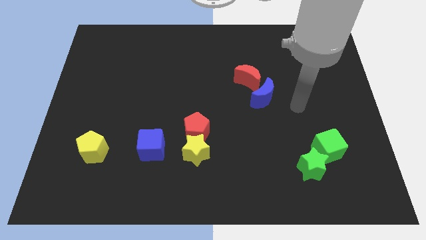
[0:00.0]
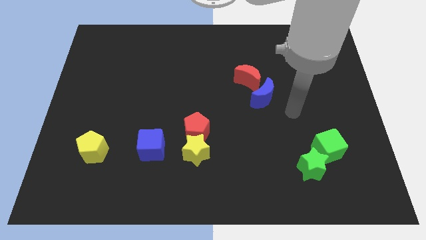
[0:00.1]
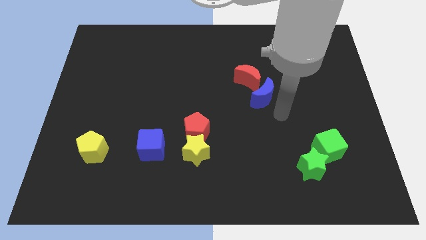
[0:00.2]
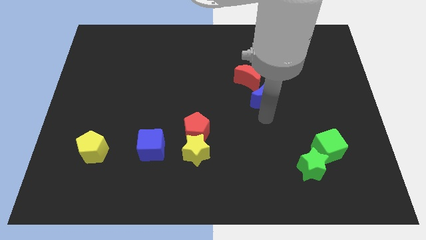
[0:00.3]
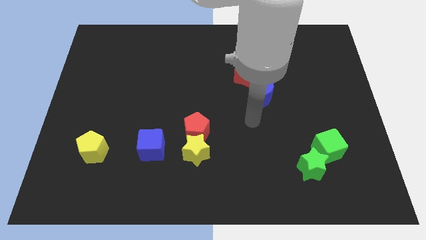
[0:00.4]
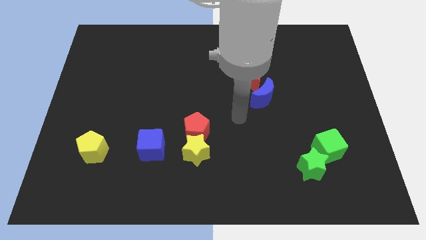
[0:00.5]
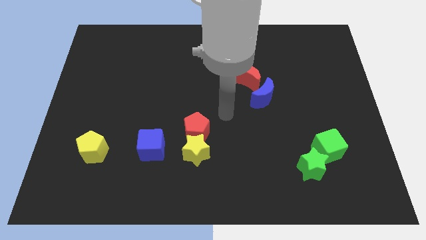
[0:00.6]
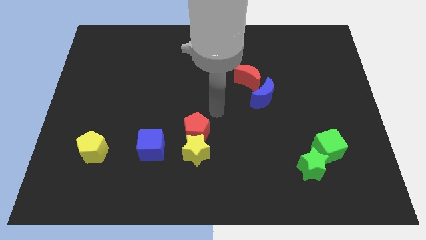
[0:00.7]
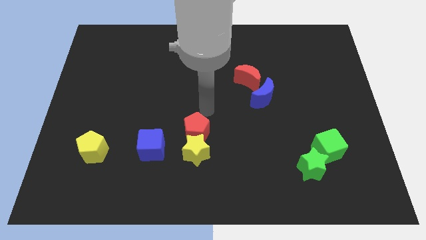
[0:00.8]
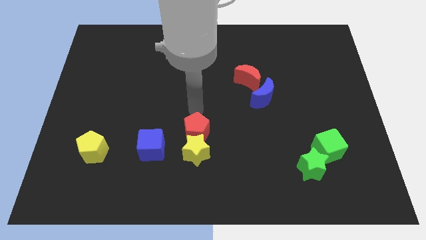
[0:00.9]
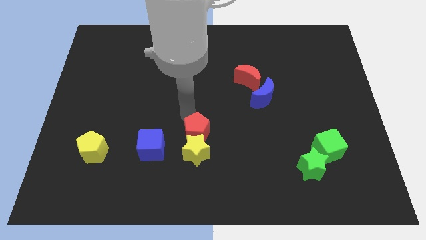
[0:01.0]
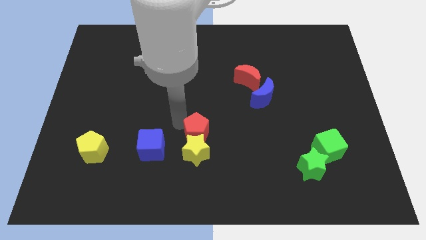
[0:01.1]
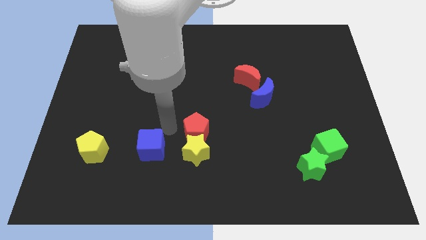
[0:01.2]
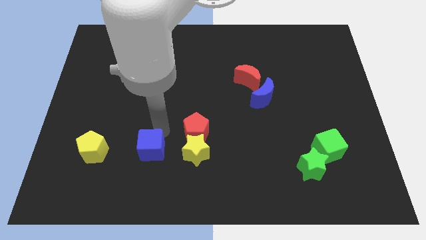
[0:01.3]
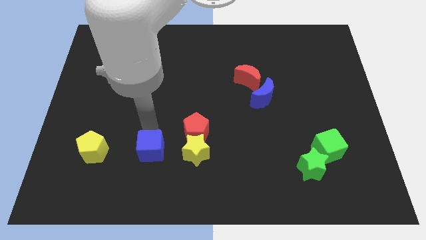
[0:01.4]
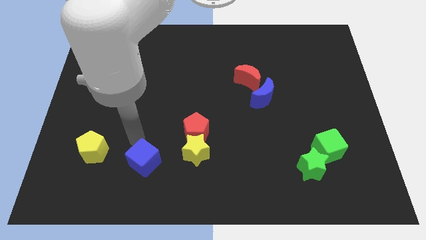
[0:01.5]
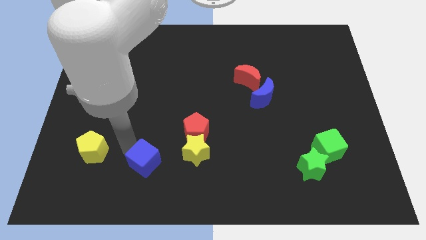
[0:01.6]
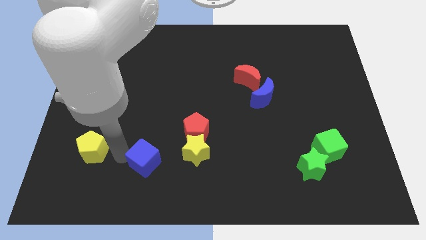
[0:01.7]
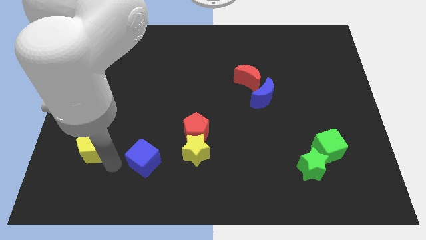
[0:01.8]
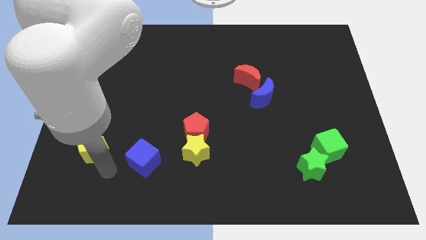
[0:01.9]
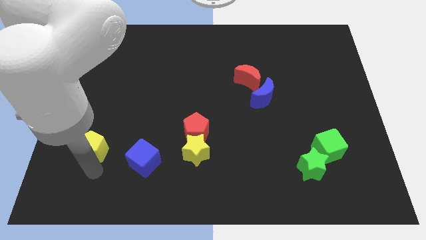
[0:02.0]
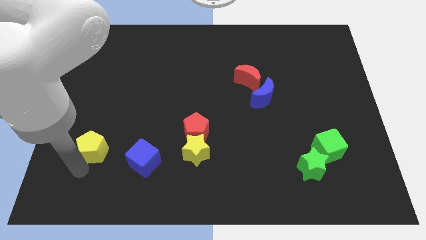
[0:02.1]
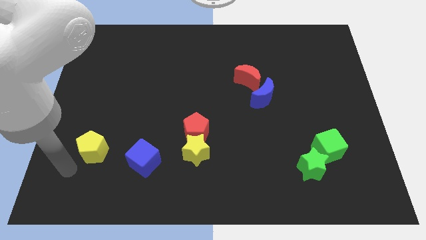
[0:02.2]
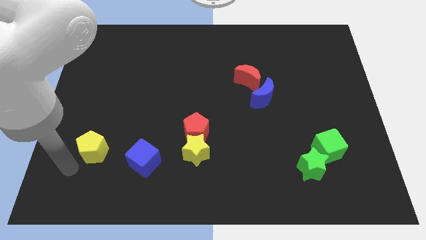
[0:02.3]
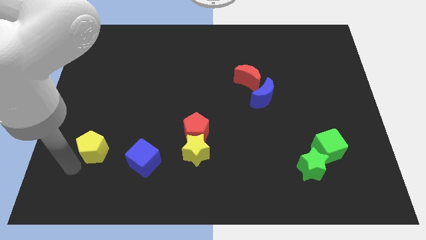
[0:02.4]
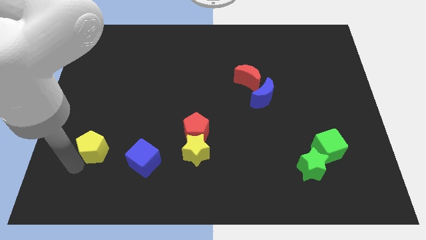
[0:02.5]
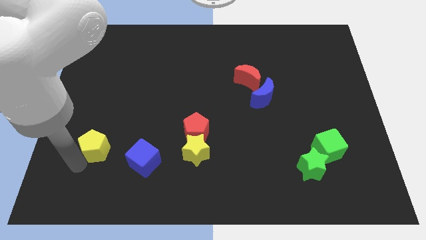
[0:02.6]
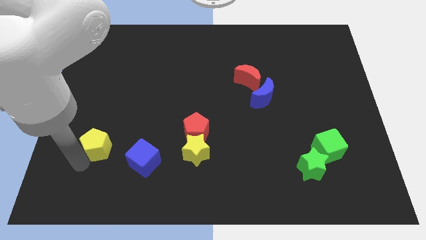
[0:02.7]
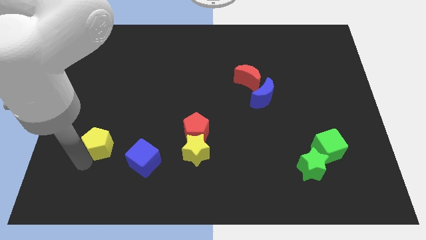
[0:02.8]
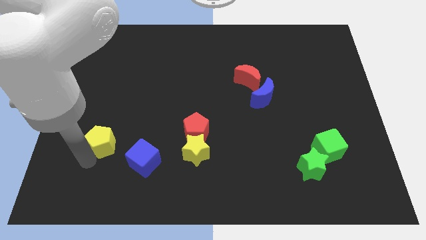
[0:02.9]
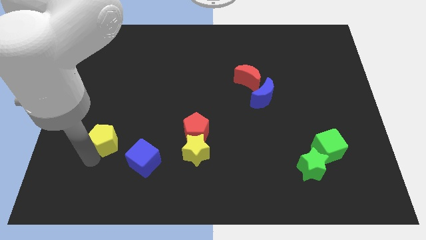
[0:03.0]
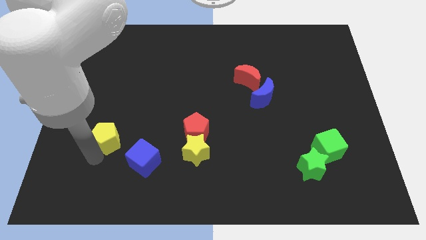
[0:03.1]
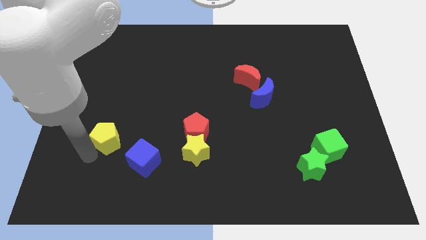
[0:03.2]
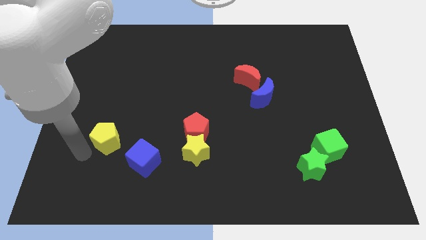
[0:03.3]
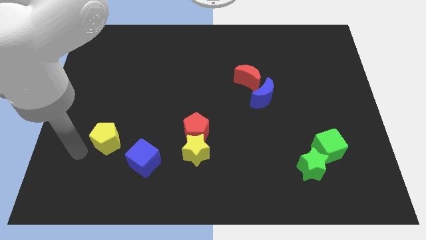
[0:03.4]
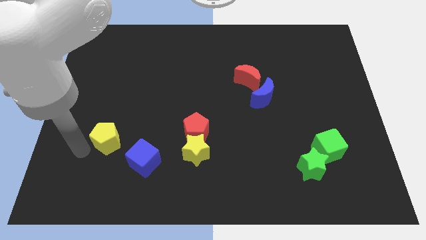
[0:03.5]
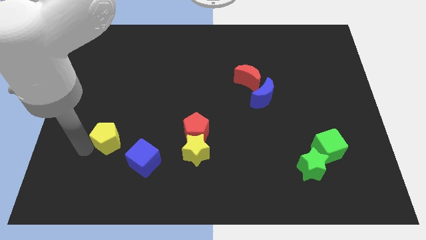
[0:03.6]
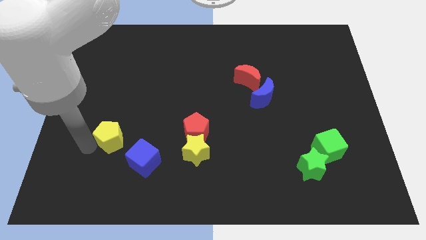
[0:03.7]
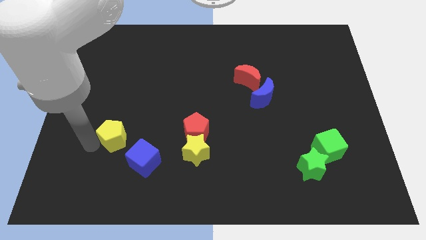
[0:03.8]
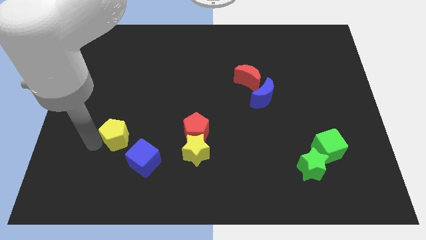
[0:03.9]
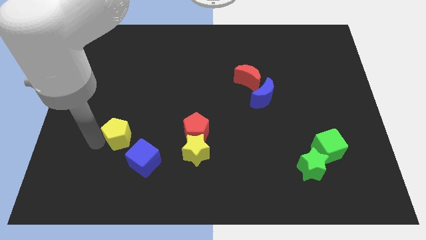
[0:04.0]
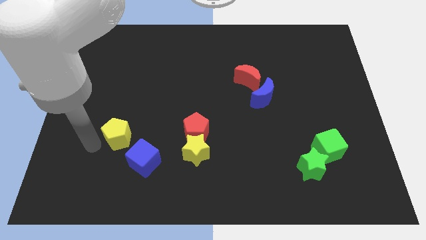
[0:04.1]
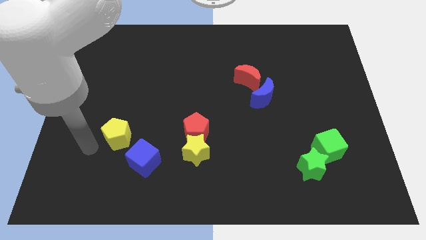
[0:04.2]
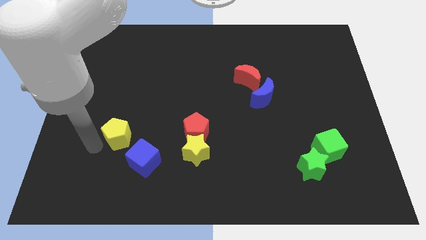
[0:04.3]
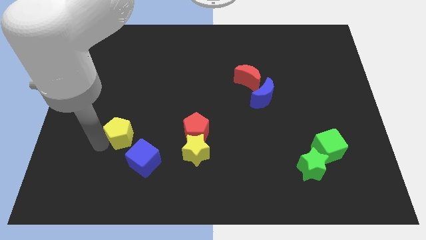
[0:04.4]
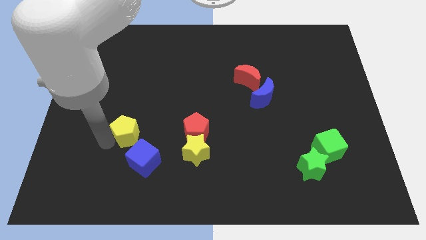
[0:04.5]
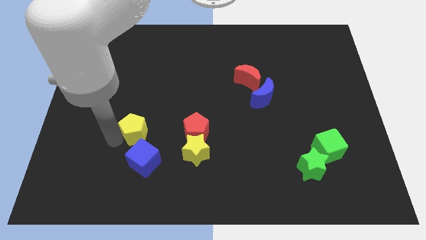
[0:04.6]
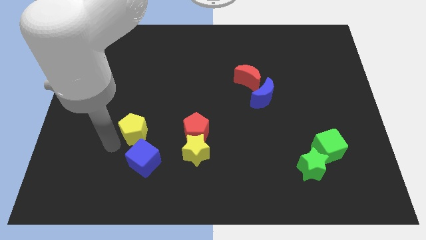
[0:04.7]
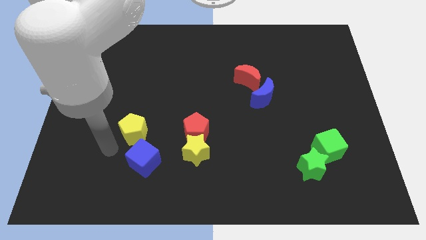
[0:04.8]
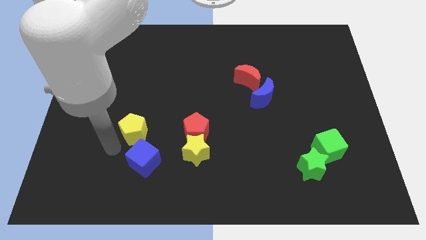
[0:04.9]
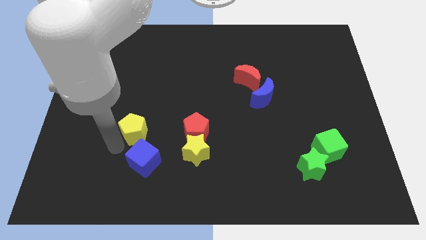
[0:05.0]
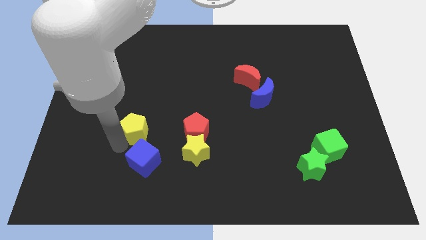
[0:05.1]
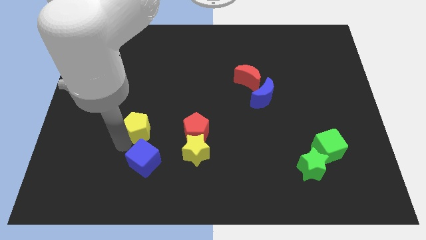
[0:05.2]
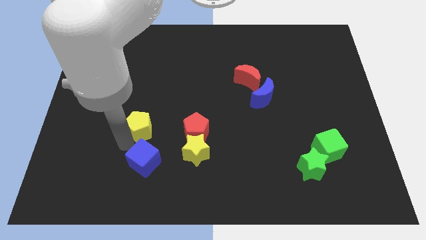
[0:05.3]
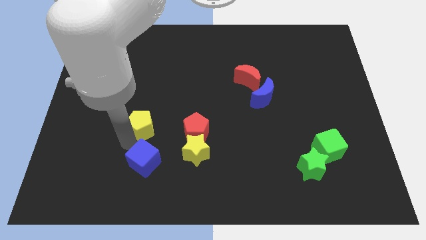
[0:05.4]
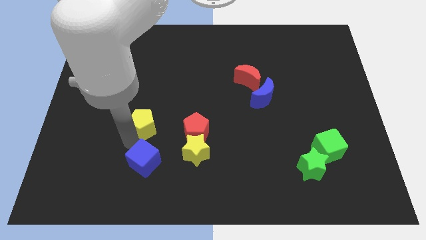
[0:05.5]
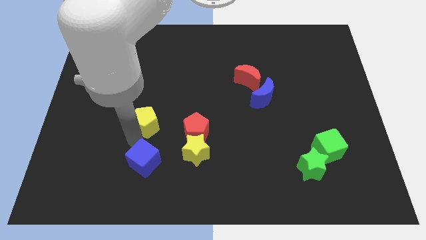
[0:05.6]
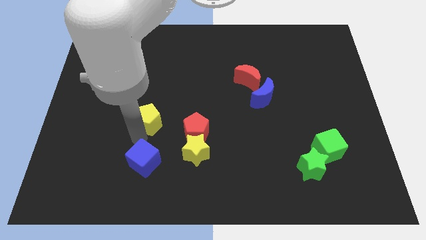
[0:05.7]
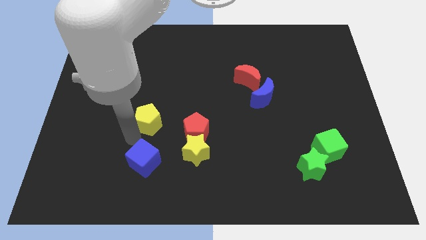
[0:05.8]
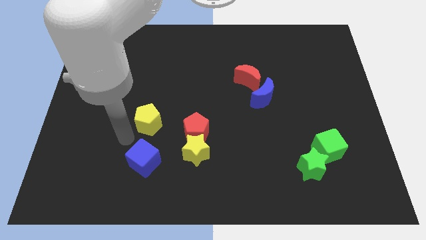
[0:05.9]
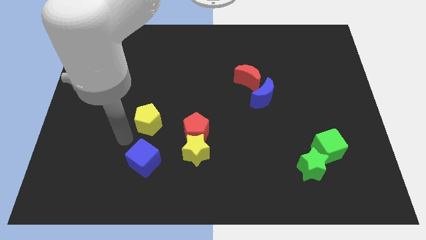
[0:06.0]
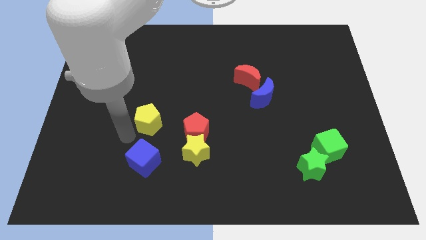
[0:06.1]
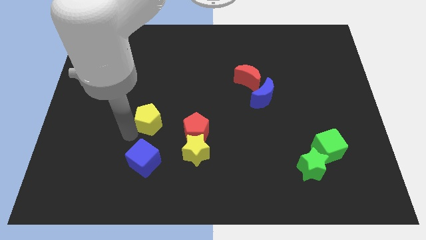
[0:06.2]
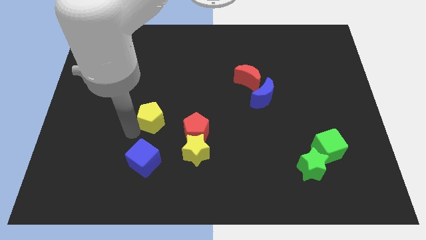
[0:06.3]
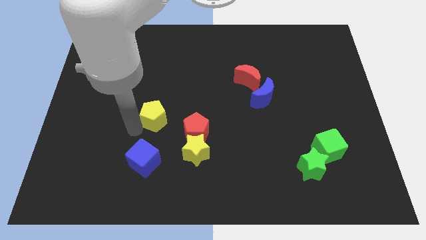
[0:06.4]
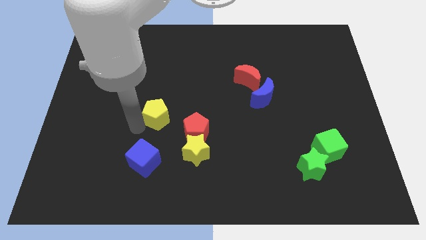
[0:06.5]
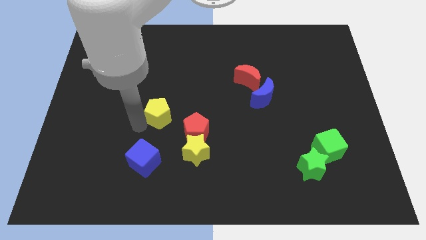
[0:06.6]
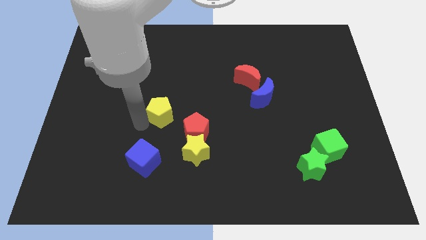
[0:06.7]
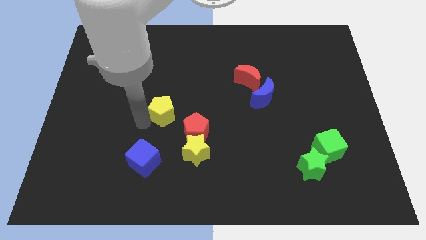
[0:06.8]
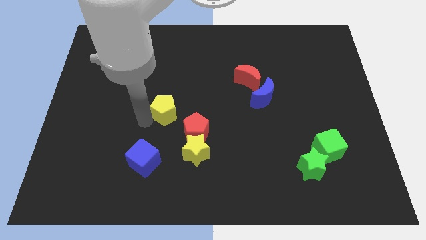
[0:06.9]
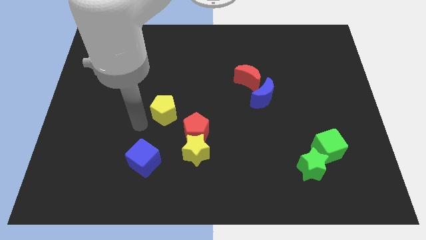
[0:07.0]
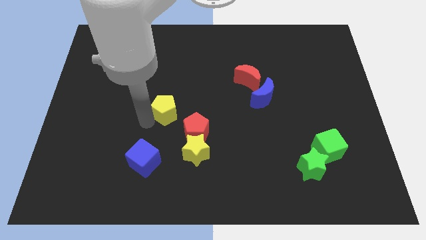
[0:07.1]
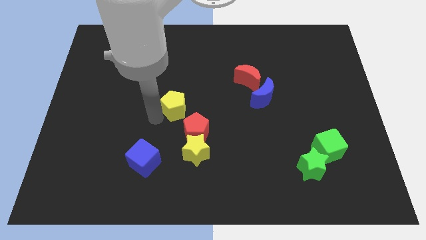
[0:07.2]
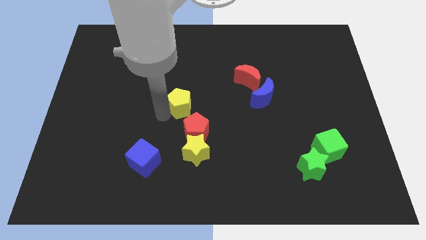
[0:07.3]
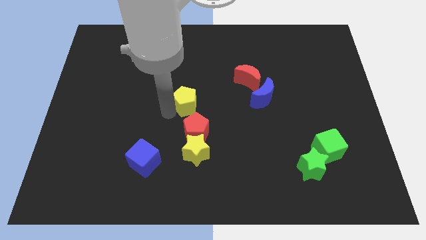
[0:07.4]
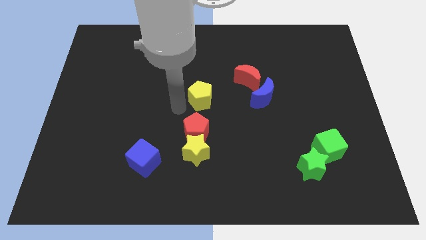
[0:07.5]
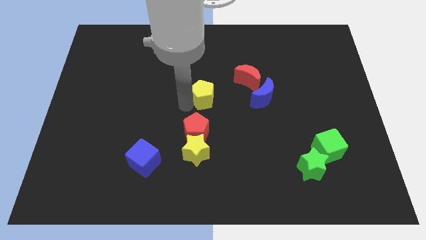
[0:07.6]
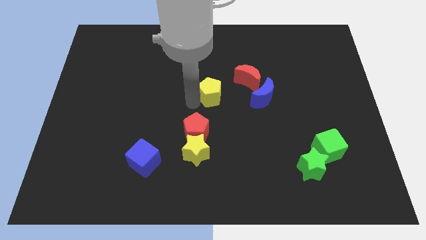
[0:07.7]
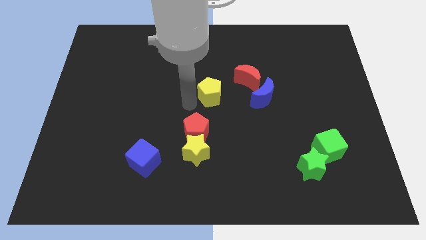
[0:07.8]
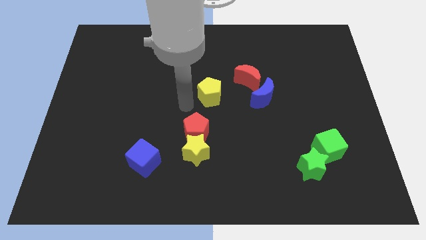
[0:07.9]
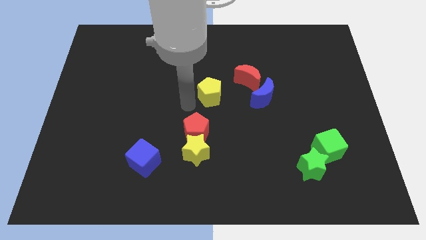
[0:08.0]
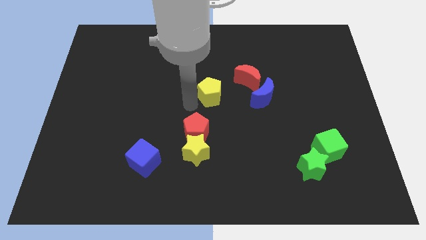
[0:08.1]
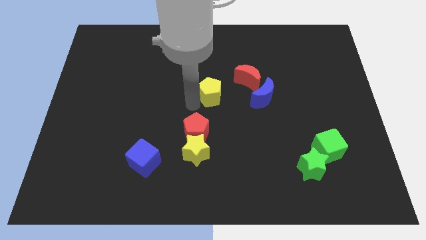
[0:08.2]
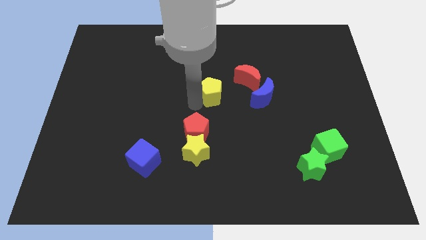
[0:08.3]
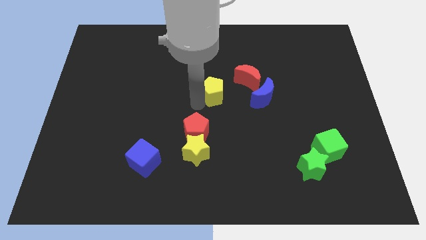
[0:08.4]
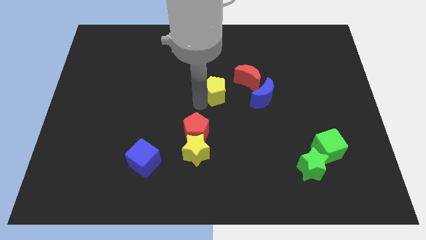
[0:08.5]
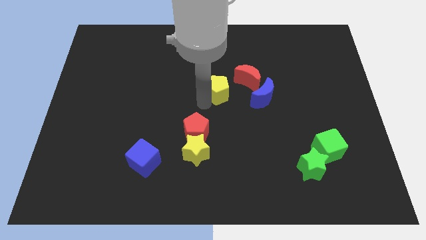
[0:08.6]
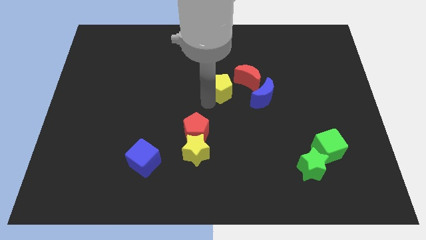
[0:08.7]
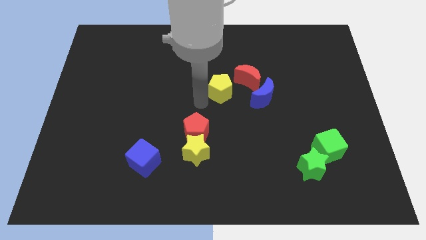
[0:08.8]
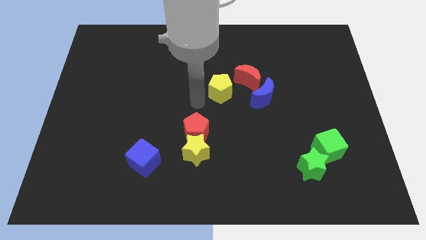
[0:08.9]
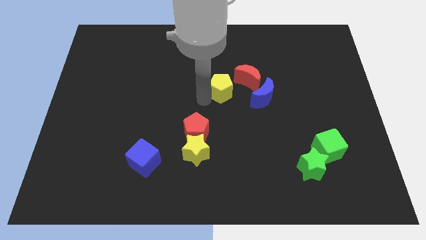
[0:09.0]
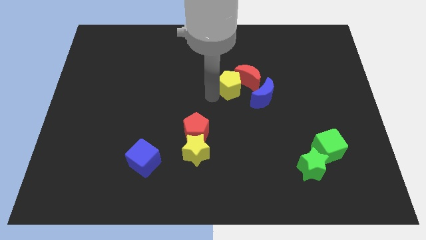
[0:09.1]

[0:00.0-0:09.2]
push the yellow pentagon towards the red moon
